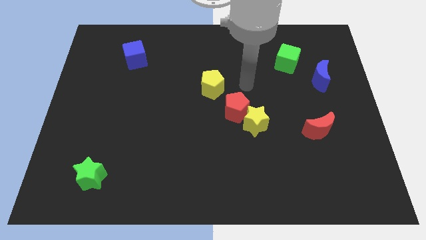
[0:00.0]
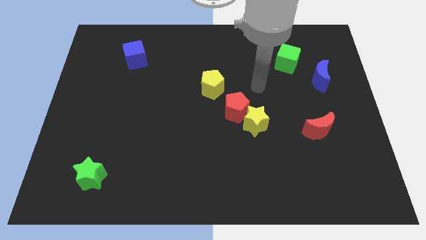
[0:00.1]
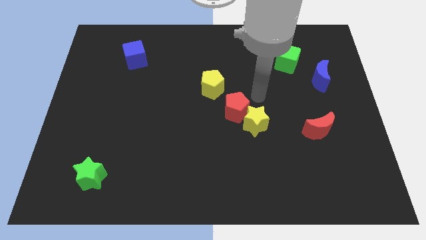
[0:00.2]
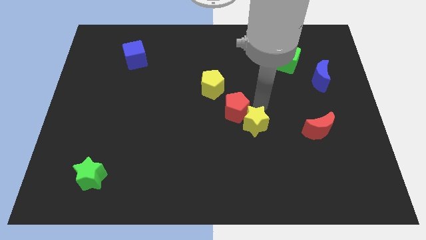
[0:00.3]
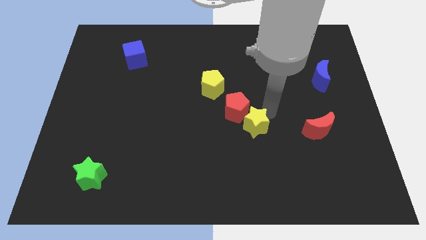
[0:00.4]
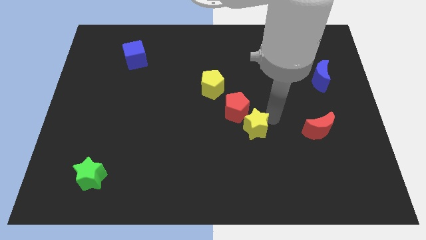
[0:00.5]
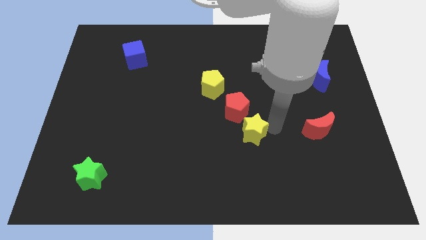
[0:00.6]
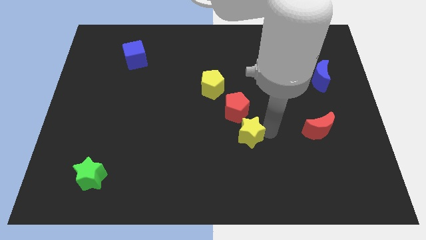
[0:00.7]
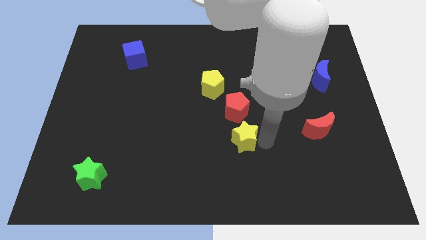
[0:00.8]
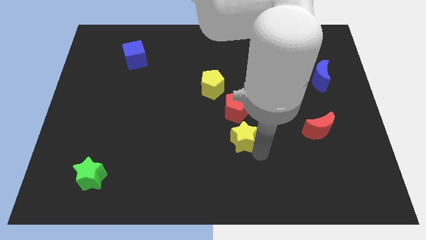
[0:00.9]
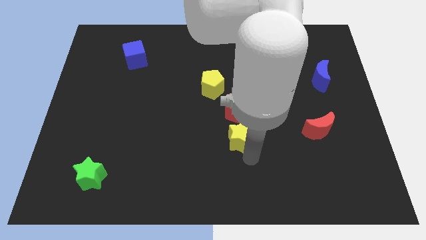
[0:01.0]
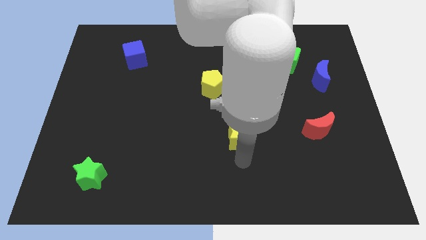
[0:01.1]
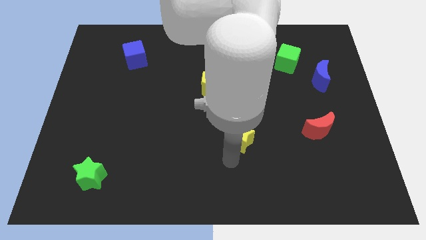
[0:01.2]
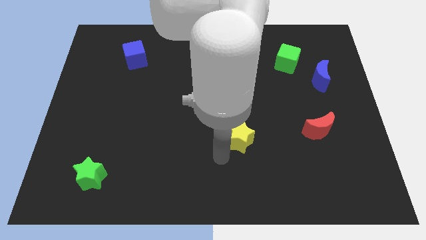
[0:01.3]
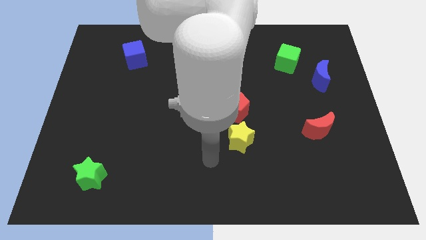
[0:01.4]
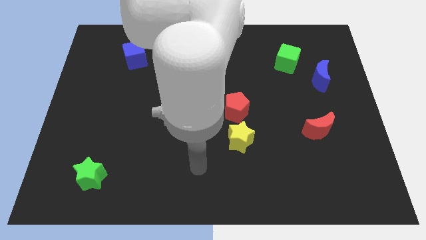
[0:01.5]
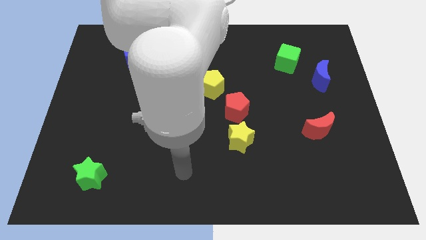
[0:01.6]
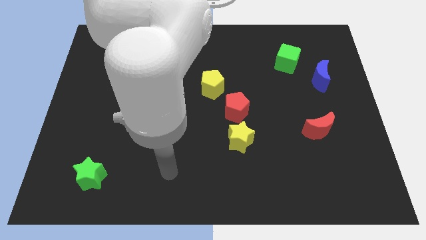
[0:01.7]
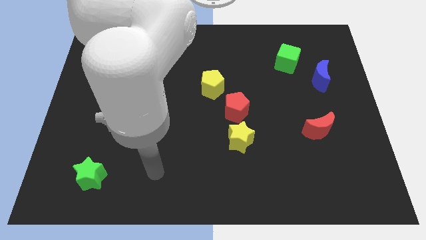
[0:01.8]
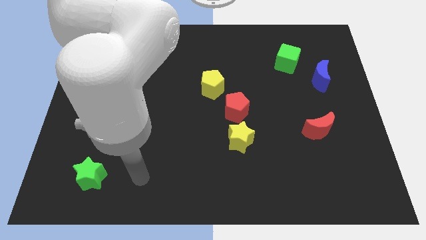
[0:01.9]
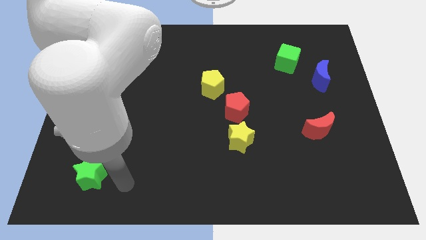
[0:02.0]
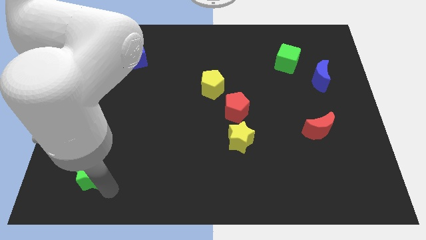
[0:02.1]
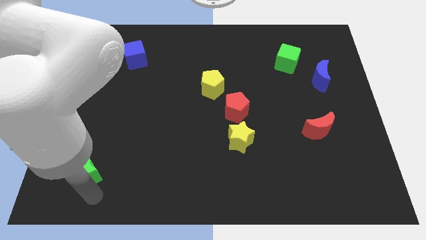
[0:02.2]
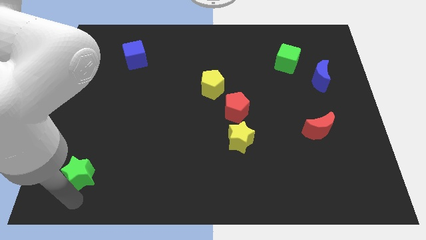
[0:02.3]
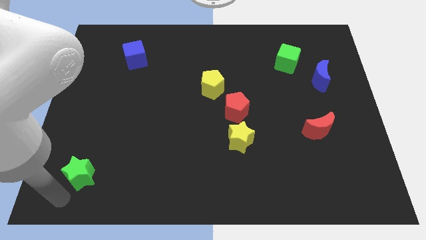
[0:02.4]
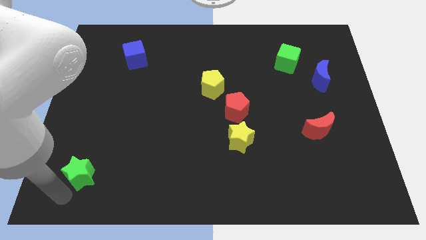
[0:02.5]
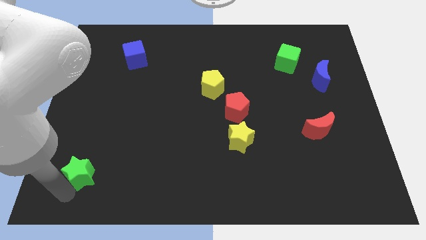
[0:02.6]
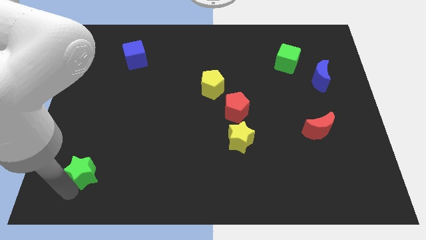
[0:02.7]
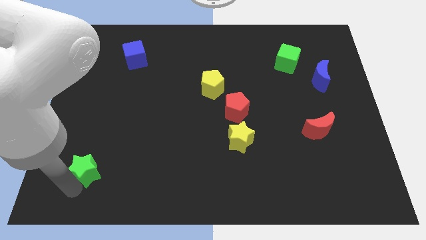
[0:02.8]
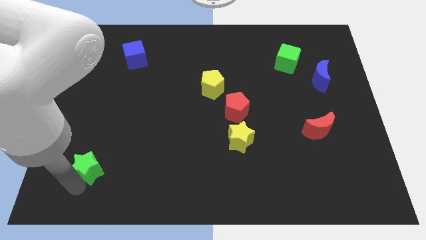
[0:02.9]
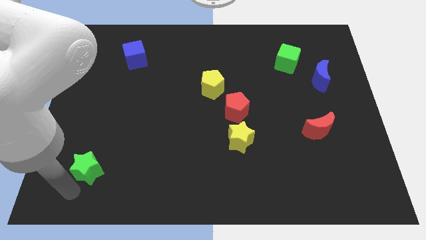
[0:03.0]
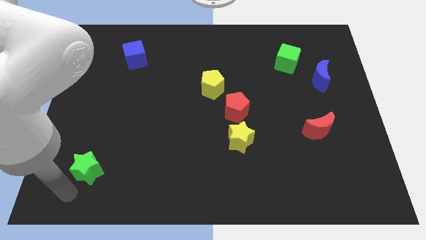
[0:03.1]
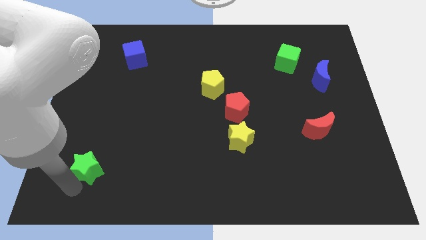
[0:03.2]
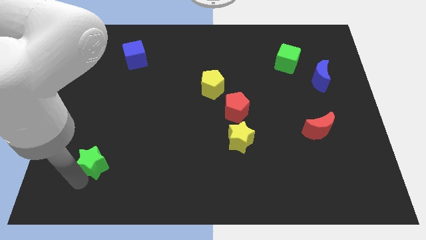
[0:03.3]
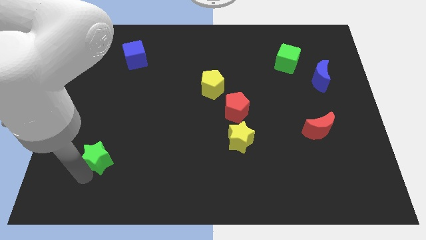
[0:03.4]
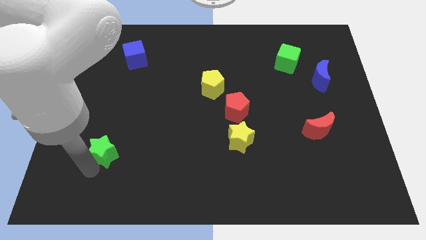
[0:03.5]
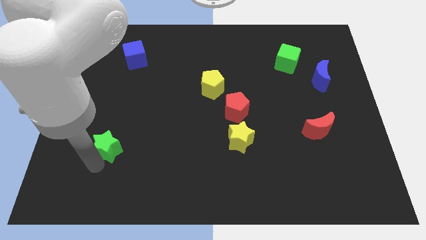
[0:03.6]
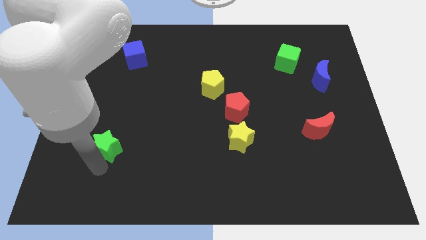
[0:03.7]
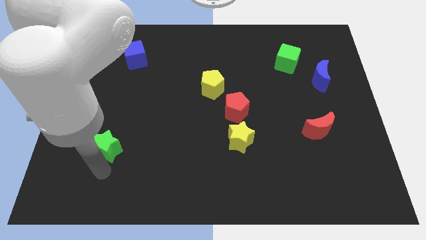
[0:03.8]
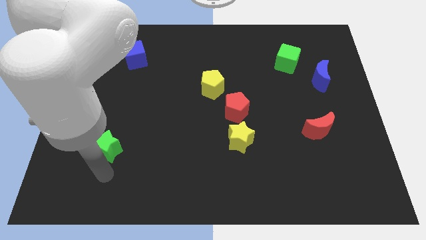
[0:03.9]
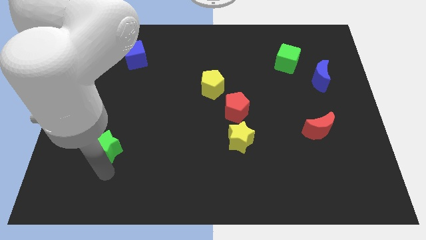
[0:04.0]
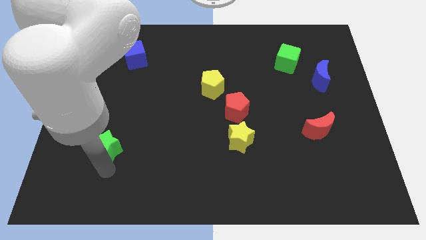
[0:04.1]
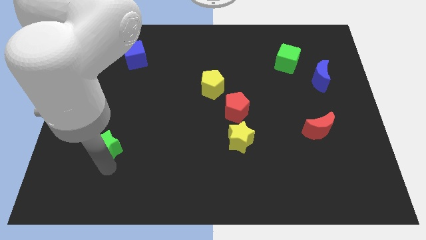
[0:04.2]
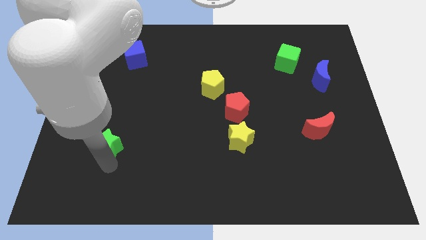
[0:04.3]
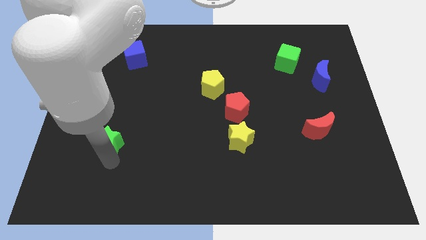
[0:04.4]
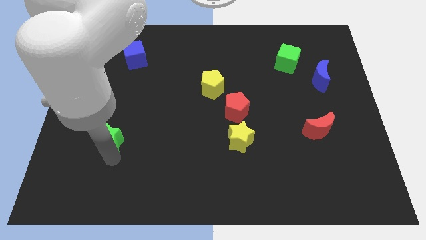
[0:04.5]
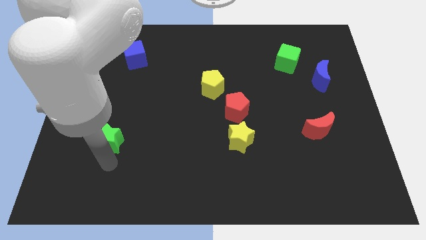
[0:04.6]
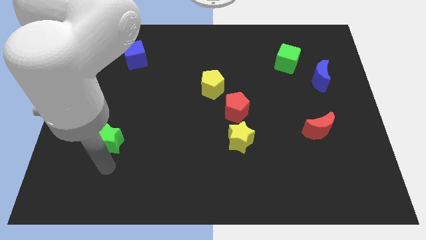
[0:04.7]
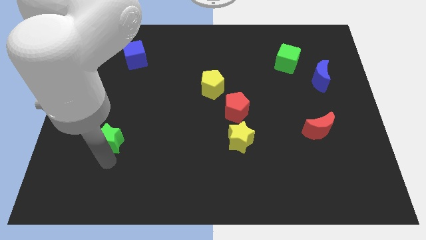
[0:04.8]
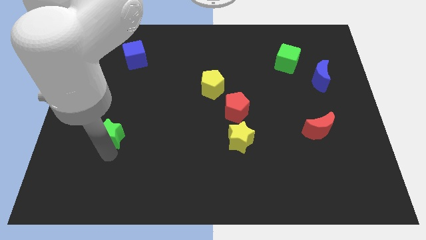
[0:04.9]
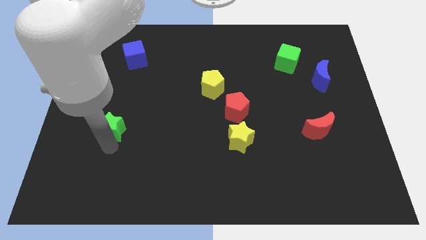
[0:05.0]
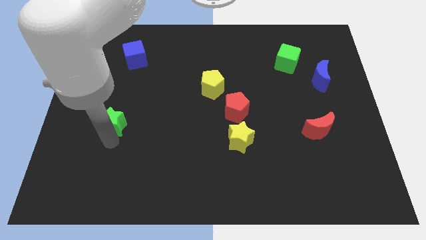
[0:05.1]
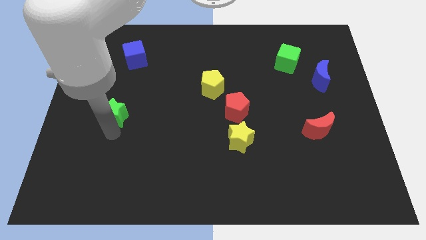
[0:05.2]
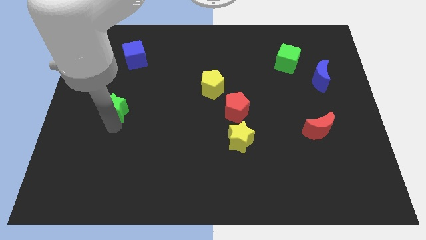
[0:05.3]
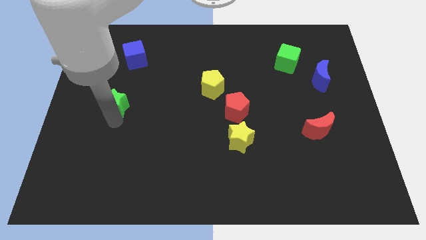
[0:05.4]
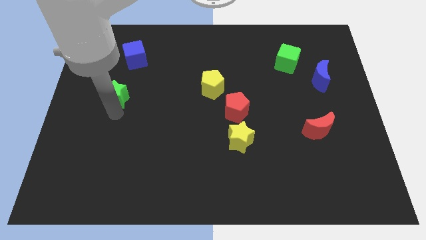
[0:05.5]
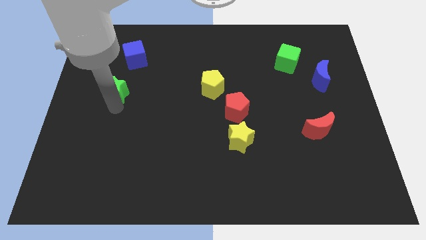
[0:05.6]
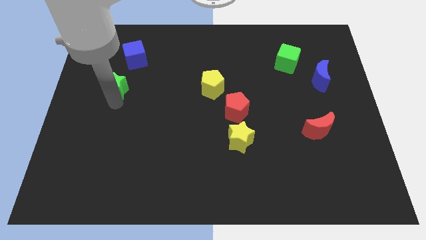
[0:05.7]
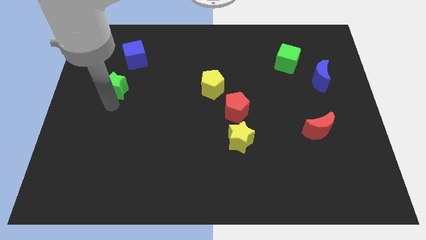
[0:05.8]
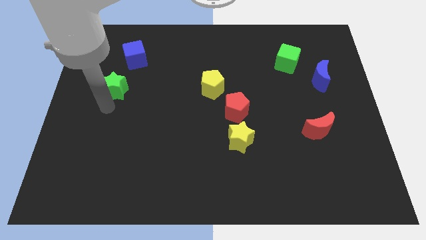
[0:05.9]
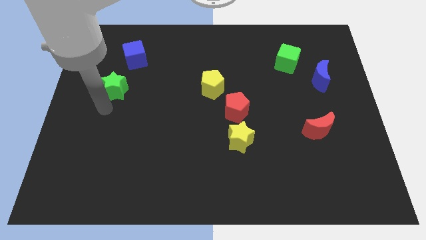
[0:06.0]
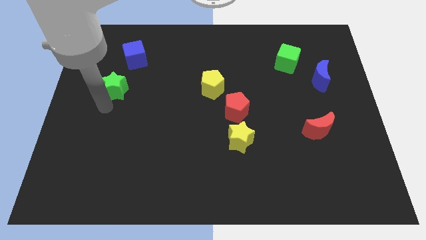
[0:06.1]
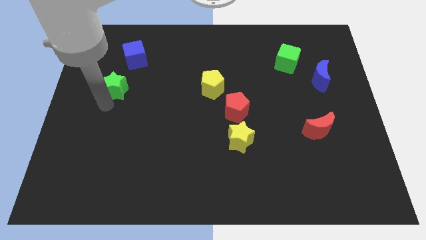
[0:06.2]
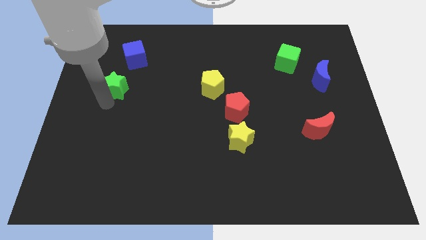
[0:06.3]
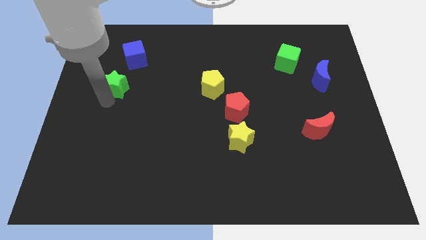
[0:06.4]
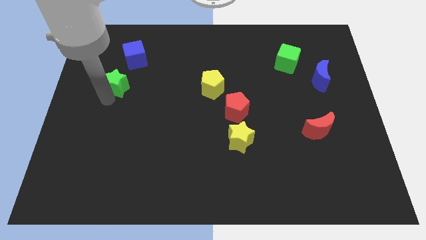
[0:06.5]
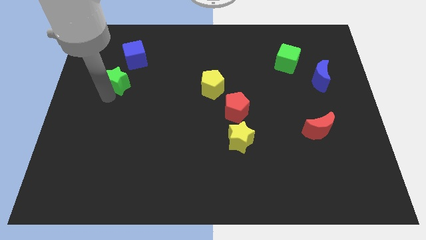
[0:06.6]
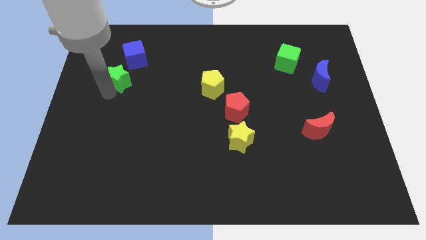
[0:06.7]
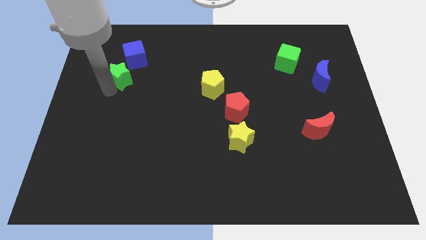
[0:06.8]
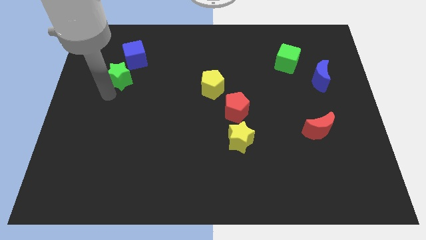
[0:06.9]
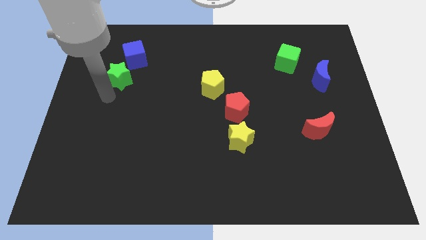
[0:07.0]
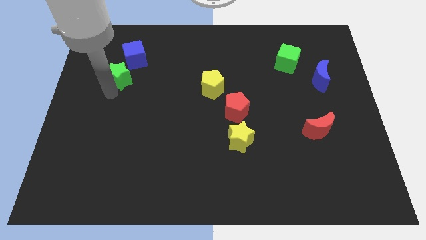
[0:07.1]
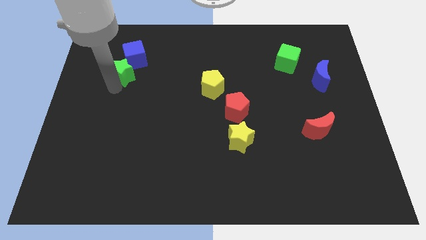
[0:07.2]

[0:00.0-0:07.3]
slide the green star next to the blue cube

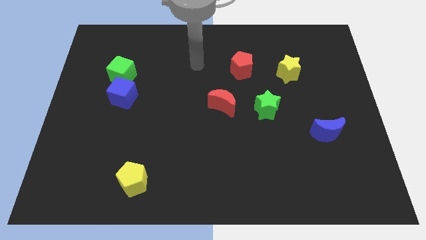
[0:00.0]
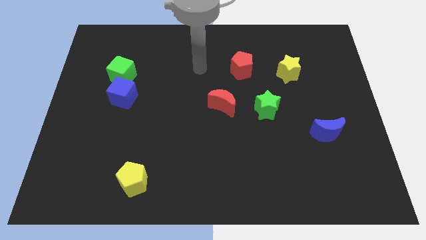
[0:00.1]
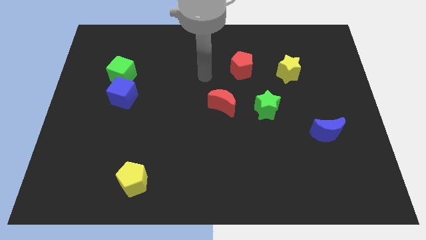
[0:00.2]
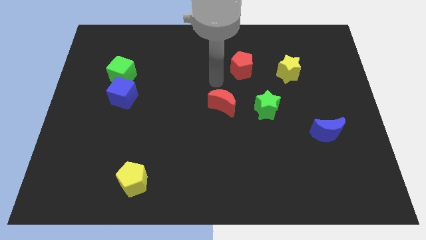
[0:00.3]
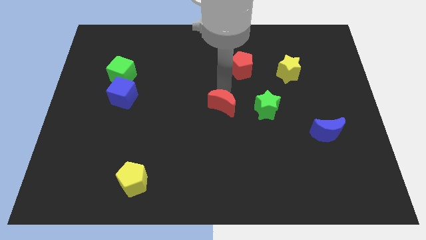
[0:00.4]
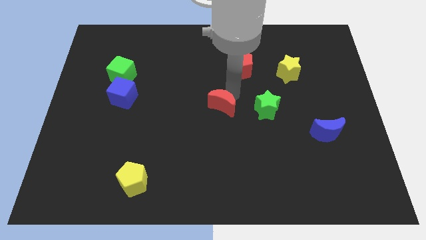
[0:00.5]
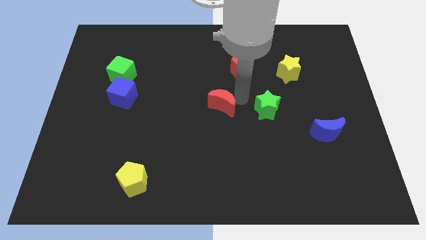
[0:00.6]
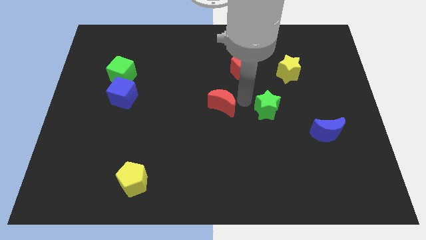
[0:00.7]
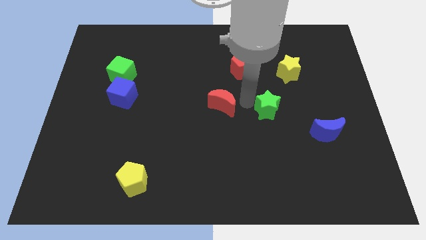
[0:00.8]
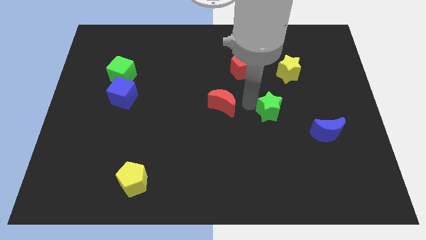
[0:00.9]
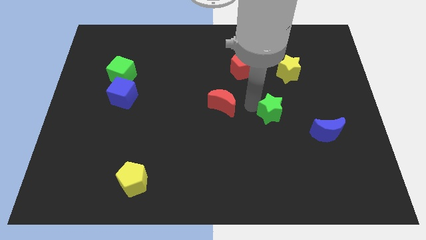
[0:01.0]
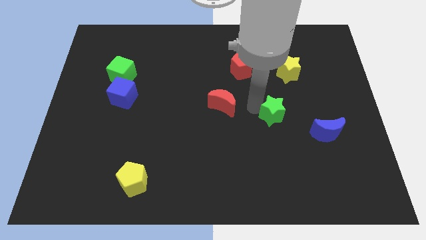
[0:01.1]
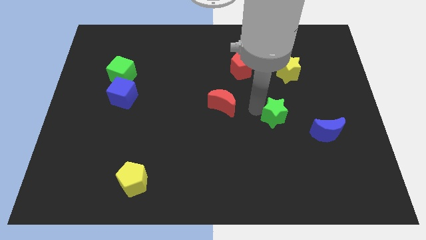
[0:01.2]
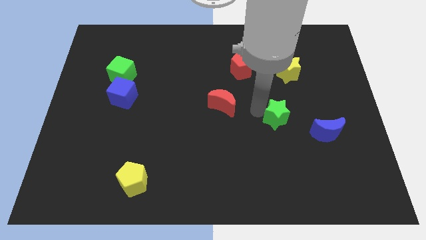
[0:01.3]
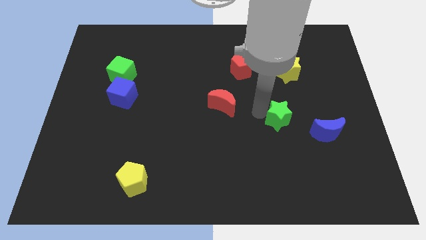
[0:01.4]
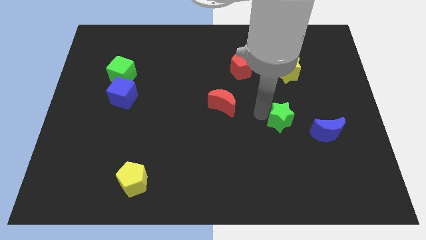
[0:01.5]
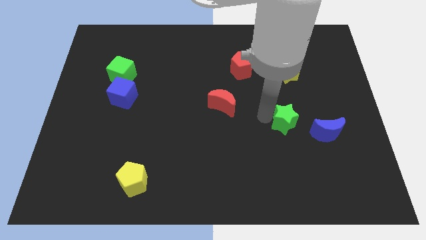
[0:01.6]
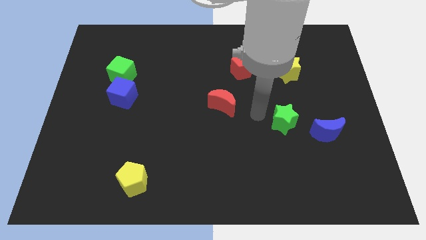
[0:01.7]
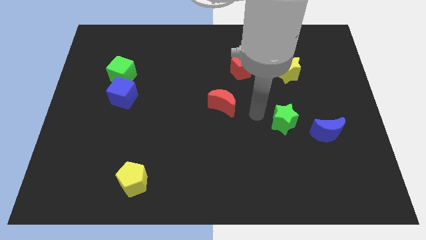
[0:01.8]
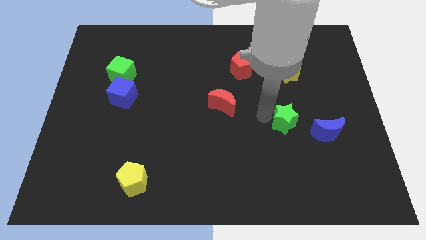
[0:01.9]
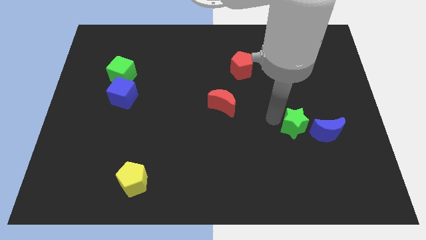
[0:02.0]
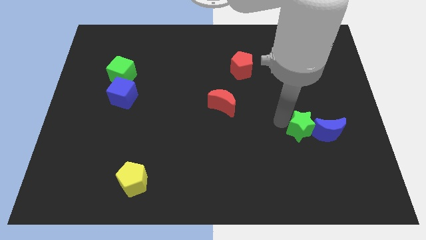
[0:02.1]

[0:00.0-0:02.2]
put the green star next to the blue moon
